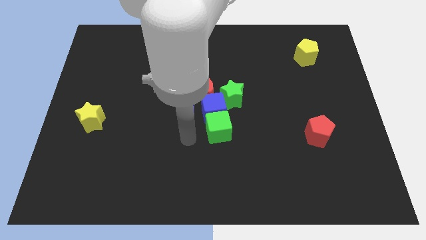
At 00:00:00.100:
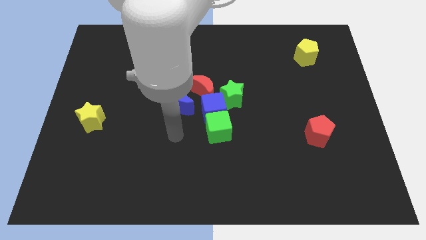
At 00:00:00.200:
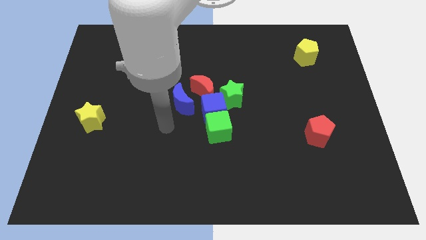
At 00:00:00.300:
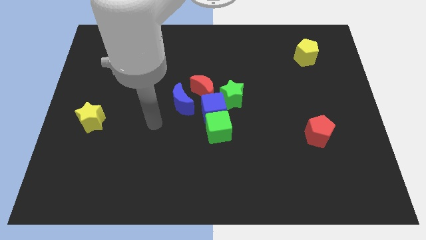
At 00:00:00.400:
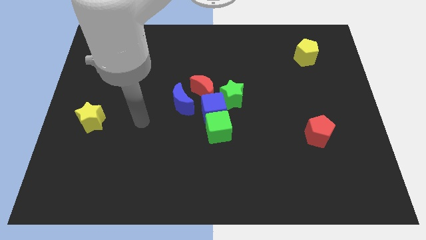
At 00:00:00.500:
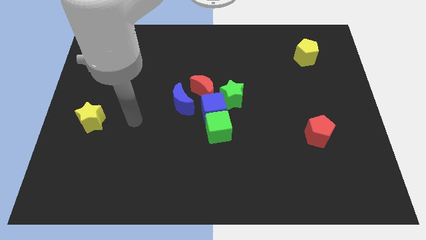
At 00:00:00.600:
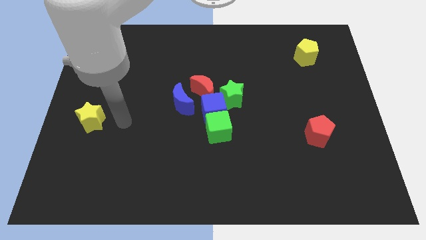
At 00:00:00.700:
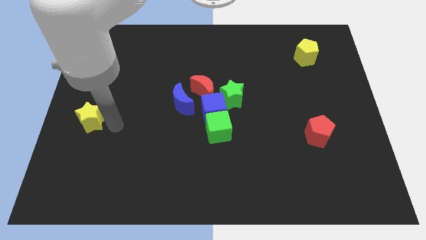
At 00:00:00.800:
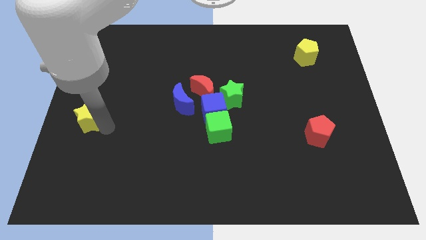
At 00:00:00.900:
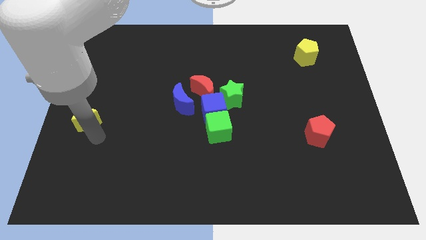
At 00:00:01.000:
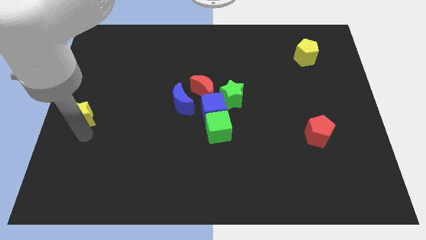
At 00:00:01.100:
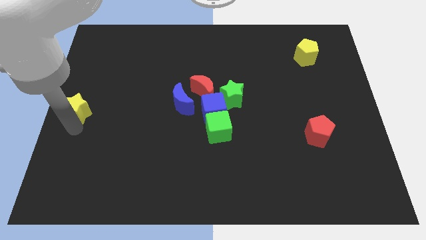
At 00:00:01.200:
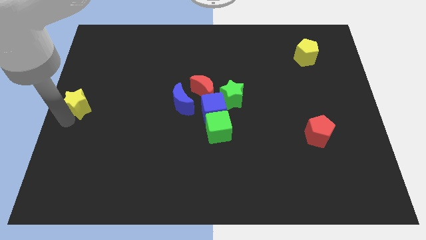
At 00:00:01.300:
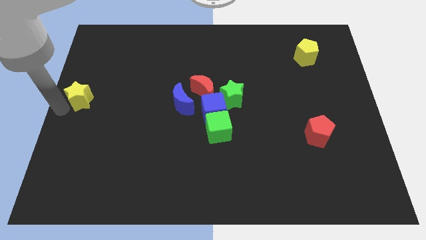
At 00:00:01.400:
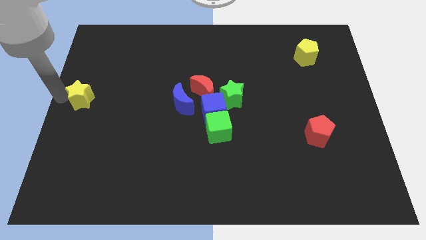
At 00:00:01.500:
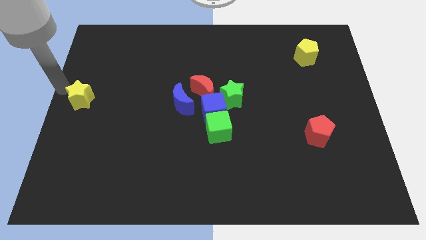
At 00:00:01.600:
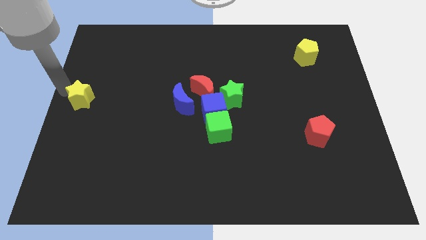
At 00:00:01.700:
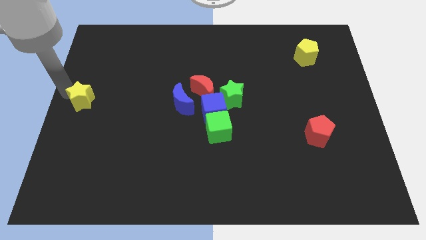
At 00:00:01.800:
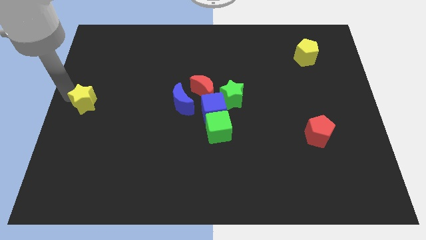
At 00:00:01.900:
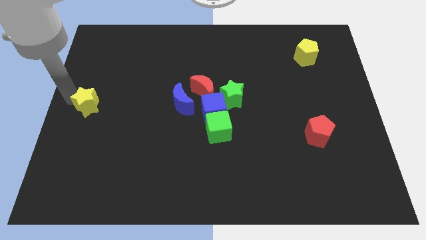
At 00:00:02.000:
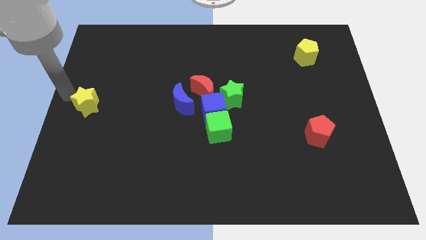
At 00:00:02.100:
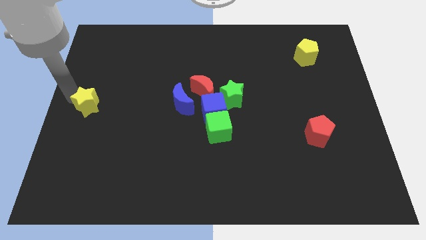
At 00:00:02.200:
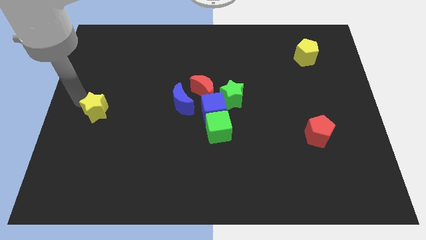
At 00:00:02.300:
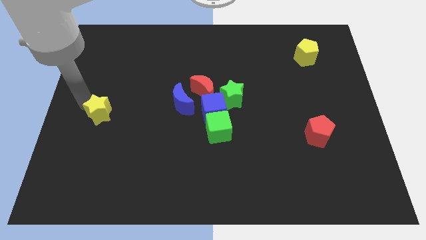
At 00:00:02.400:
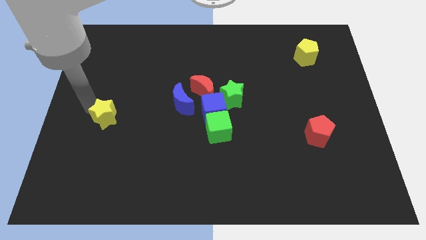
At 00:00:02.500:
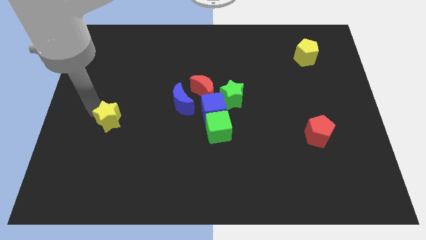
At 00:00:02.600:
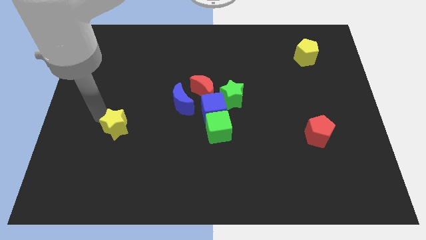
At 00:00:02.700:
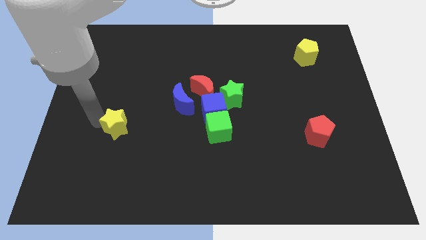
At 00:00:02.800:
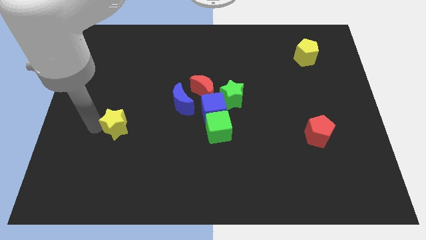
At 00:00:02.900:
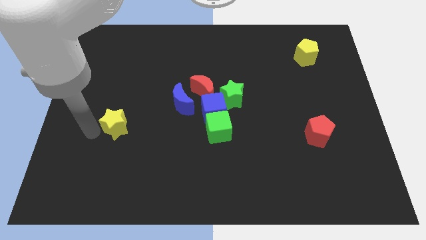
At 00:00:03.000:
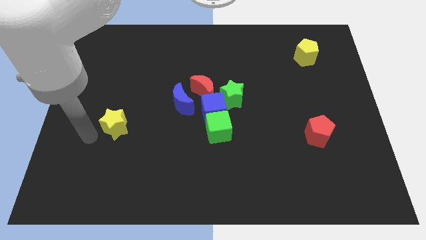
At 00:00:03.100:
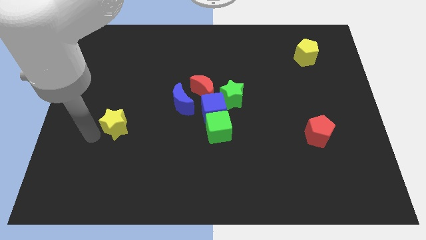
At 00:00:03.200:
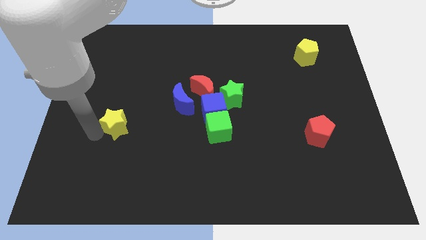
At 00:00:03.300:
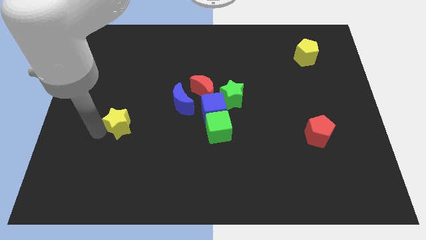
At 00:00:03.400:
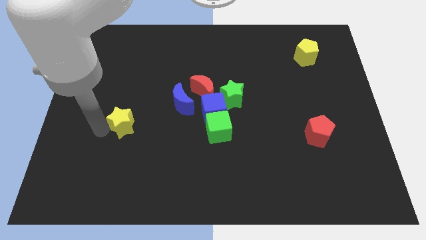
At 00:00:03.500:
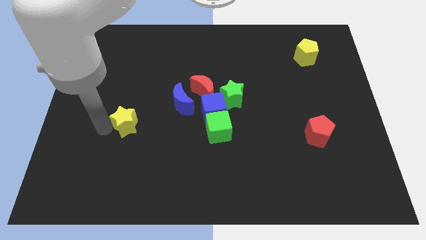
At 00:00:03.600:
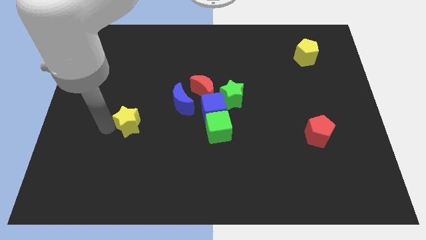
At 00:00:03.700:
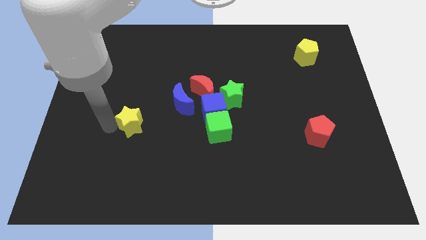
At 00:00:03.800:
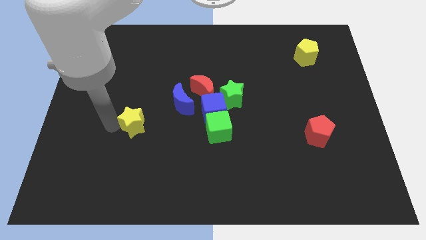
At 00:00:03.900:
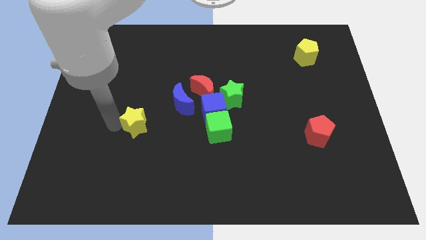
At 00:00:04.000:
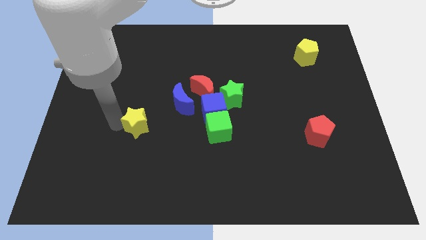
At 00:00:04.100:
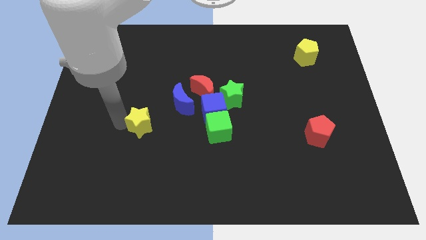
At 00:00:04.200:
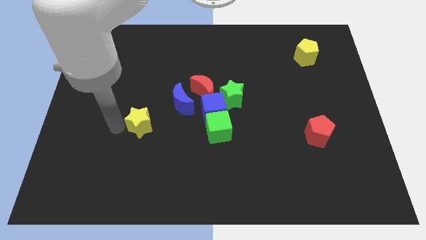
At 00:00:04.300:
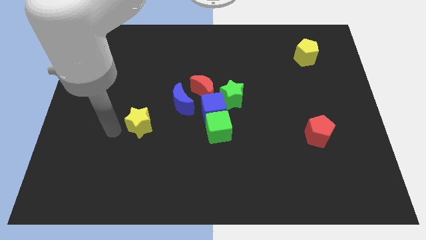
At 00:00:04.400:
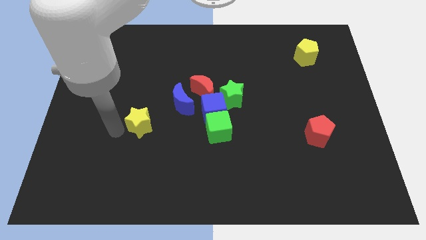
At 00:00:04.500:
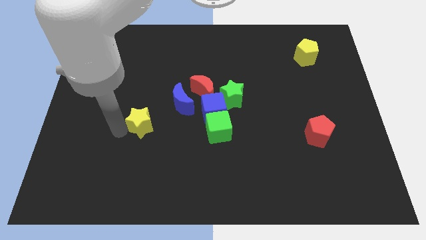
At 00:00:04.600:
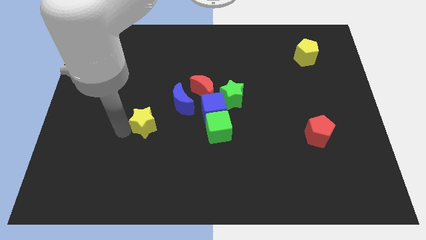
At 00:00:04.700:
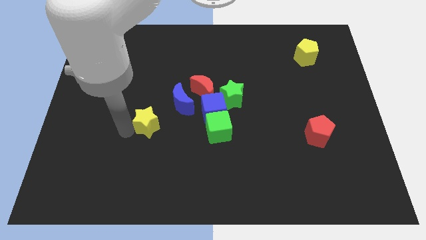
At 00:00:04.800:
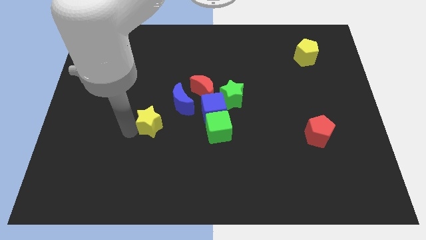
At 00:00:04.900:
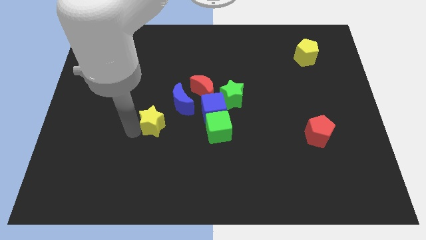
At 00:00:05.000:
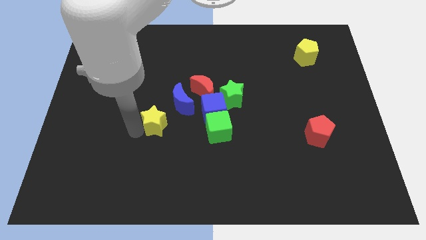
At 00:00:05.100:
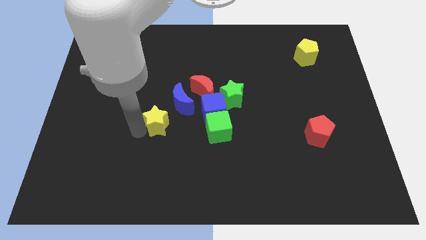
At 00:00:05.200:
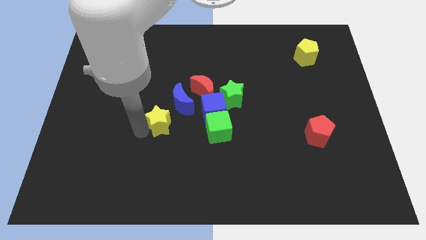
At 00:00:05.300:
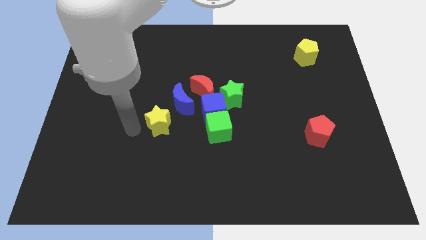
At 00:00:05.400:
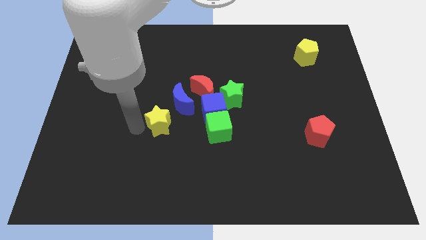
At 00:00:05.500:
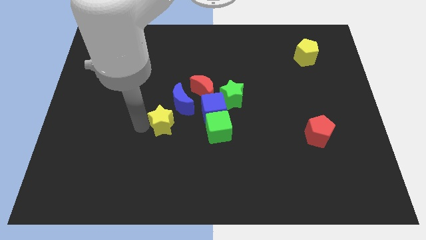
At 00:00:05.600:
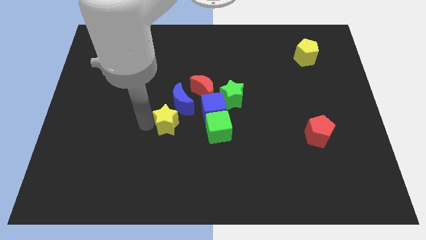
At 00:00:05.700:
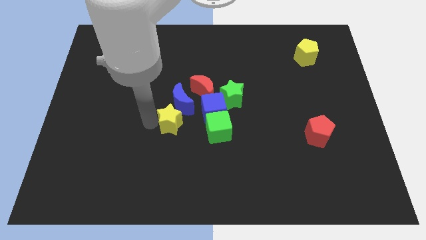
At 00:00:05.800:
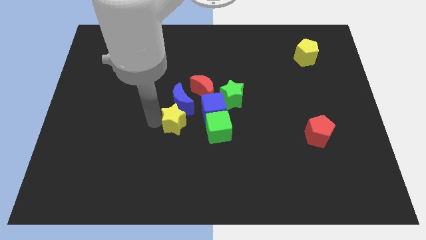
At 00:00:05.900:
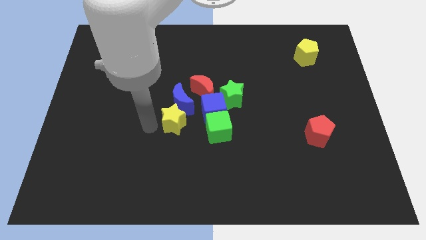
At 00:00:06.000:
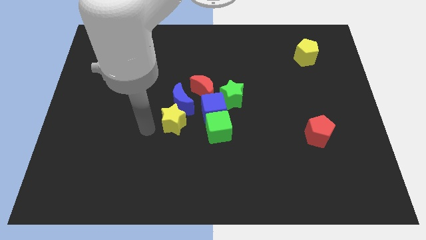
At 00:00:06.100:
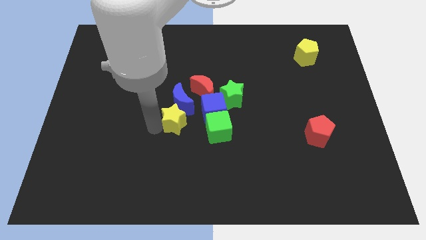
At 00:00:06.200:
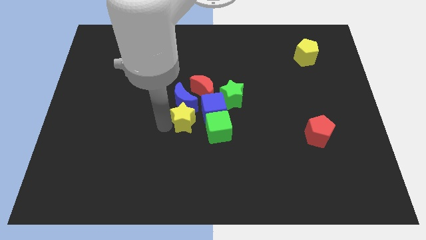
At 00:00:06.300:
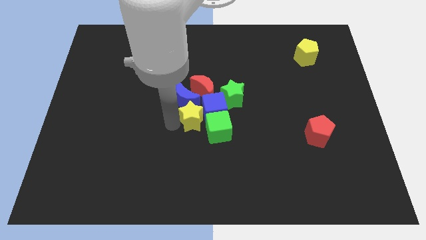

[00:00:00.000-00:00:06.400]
push the yellow star diagonally down and to the left of the green star

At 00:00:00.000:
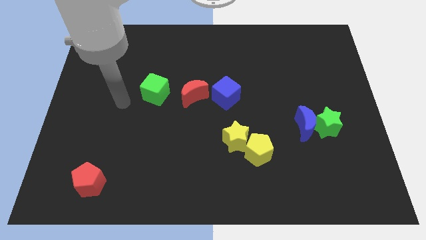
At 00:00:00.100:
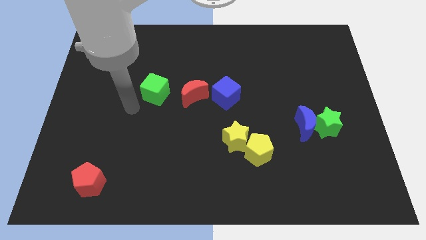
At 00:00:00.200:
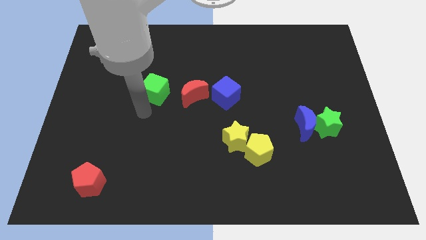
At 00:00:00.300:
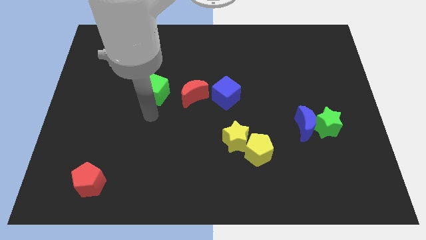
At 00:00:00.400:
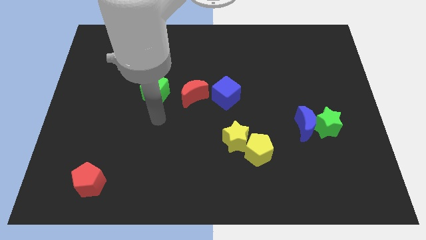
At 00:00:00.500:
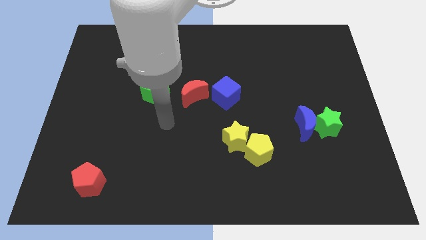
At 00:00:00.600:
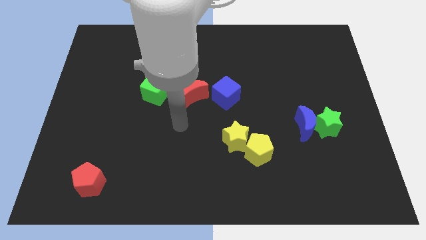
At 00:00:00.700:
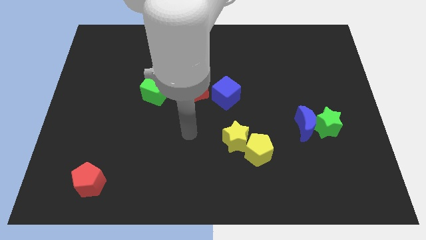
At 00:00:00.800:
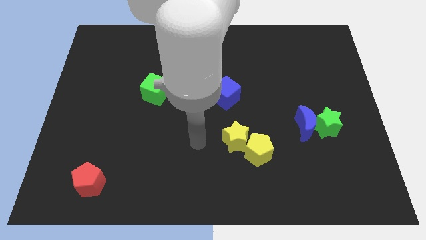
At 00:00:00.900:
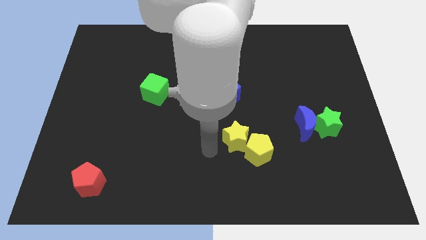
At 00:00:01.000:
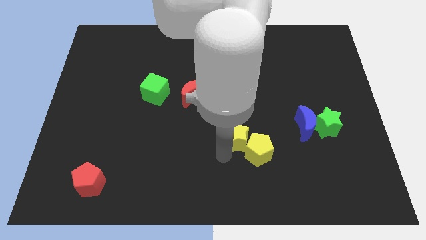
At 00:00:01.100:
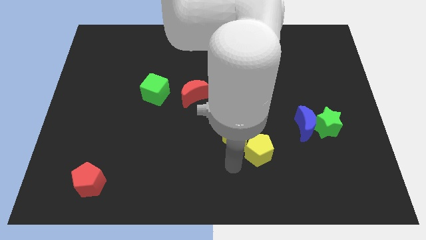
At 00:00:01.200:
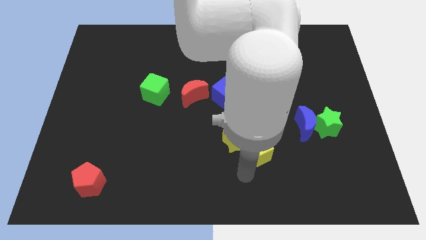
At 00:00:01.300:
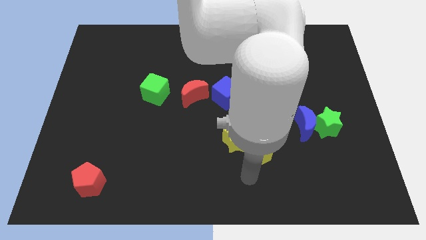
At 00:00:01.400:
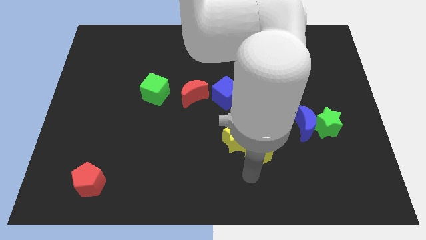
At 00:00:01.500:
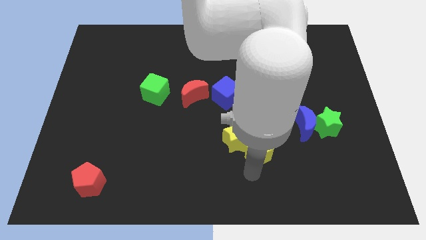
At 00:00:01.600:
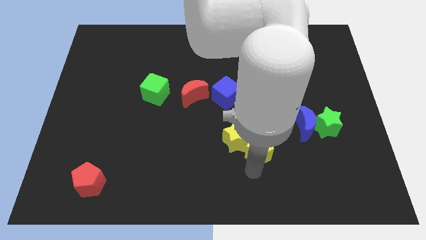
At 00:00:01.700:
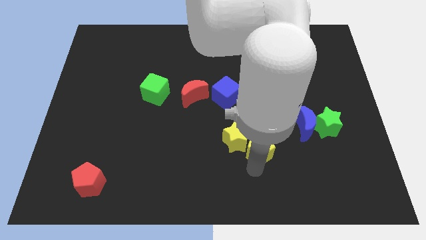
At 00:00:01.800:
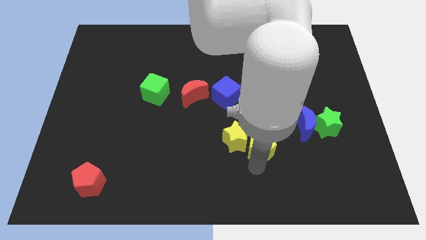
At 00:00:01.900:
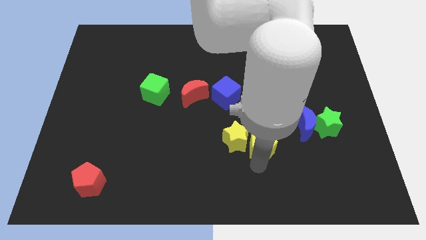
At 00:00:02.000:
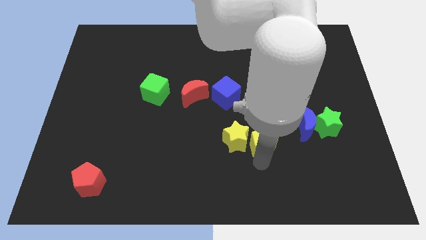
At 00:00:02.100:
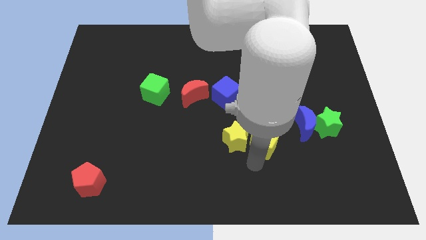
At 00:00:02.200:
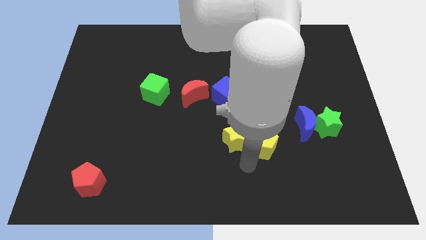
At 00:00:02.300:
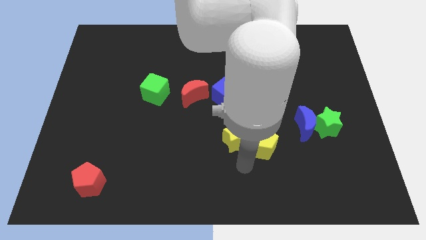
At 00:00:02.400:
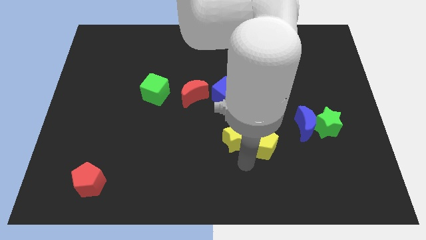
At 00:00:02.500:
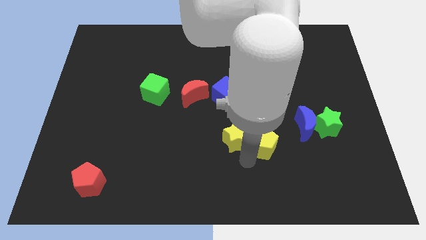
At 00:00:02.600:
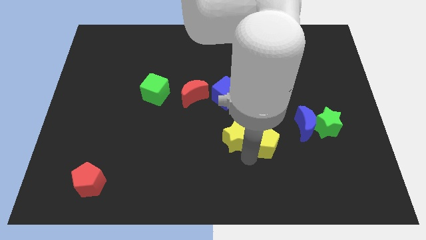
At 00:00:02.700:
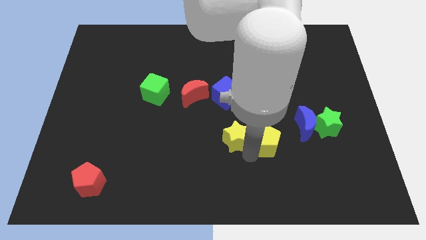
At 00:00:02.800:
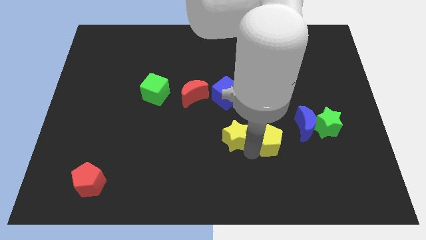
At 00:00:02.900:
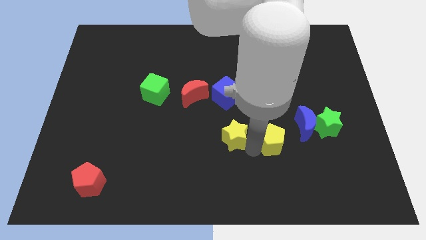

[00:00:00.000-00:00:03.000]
slide the yellow pentagon to the left of the green star
